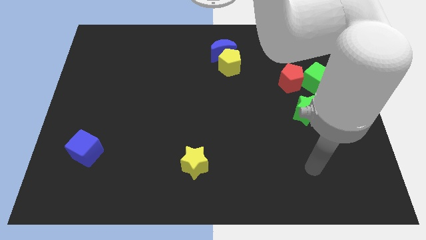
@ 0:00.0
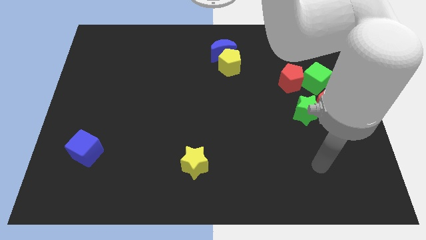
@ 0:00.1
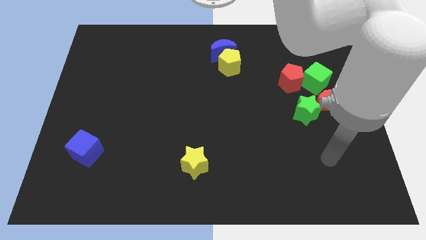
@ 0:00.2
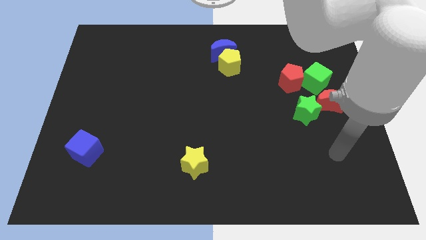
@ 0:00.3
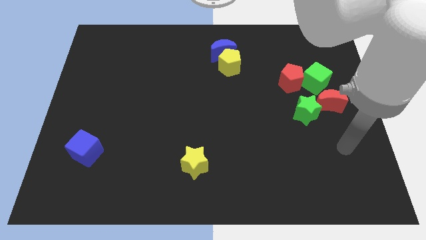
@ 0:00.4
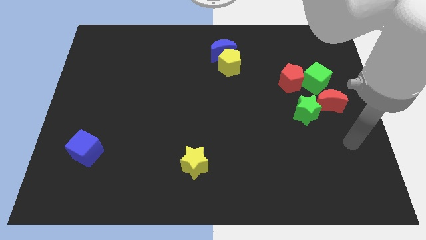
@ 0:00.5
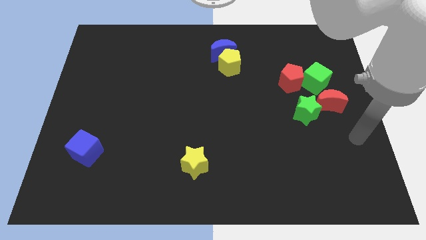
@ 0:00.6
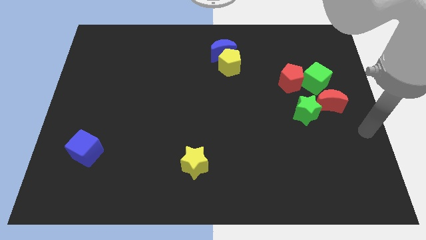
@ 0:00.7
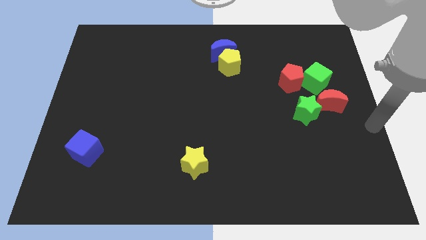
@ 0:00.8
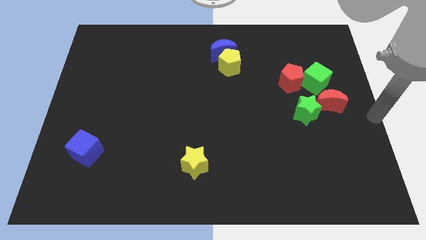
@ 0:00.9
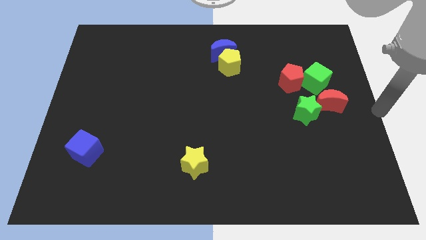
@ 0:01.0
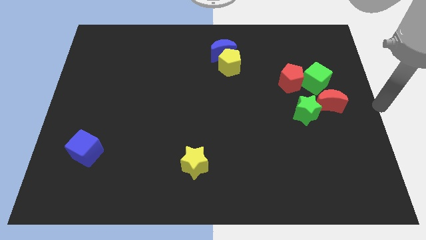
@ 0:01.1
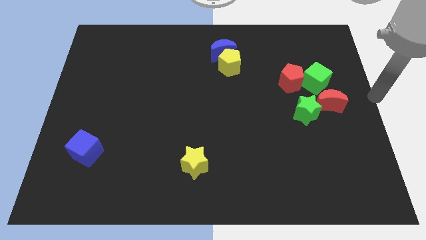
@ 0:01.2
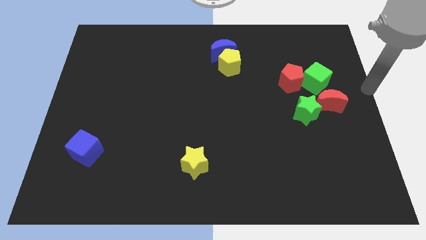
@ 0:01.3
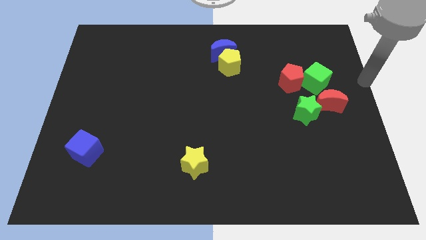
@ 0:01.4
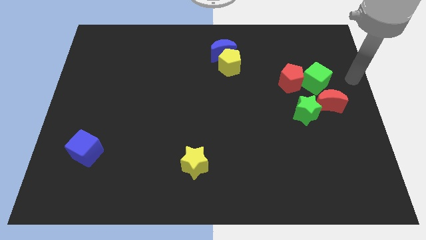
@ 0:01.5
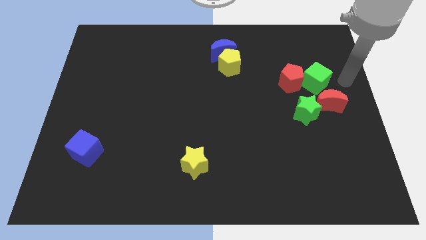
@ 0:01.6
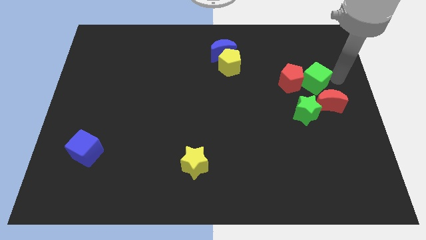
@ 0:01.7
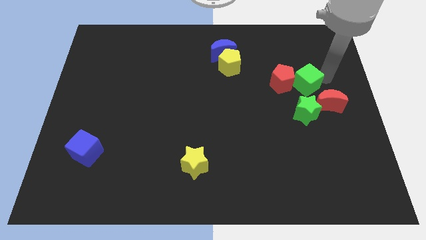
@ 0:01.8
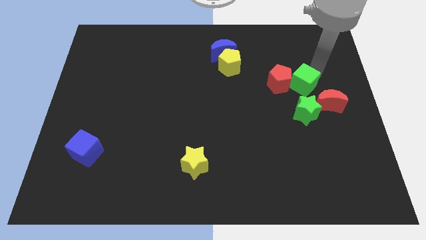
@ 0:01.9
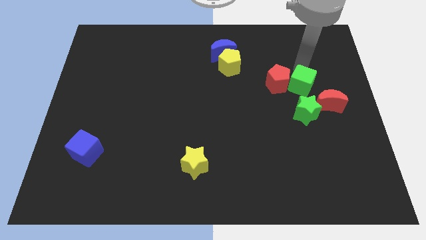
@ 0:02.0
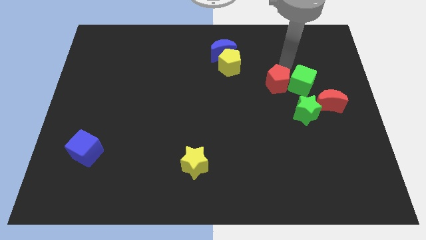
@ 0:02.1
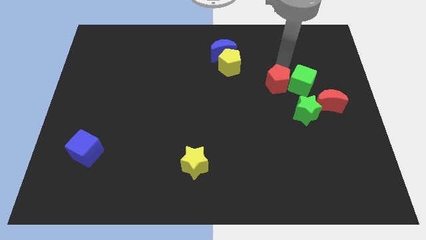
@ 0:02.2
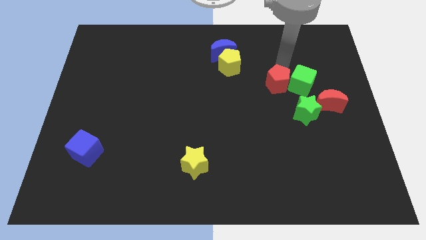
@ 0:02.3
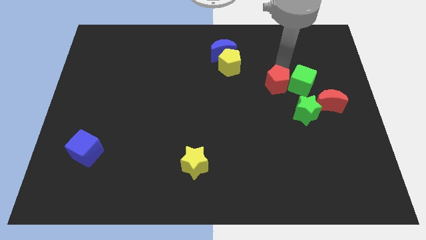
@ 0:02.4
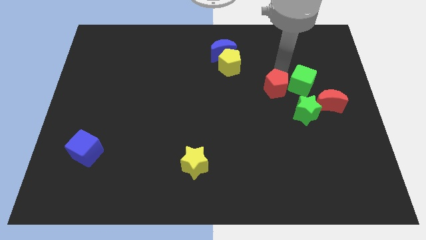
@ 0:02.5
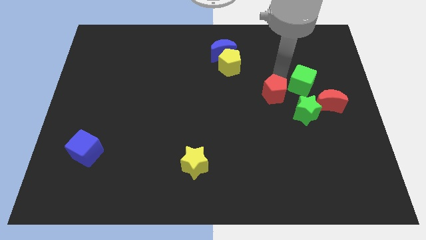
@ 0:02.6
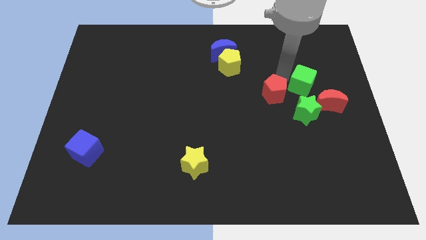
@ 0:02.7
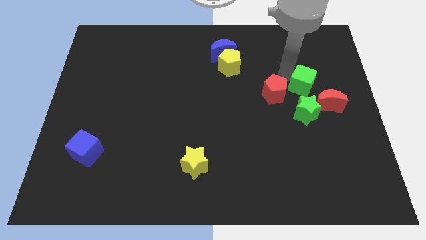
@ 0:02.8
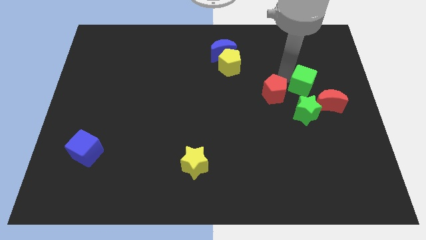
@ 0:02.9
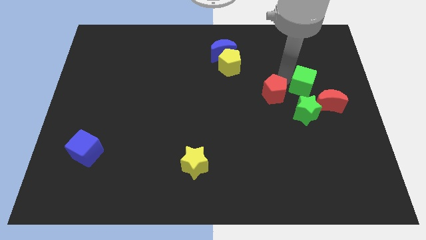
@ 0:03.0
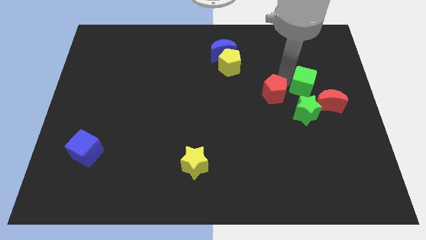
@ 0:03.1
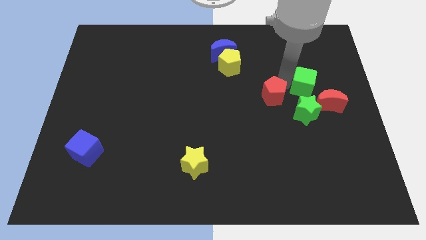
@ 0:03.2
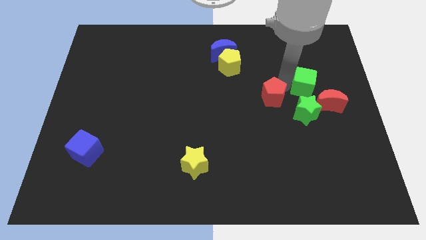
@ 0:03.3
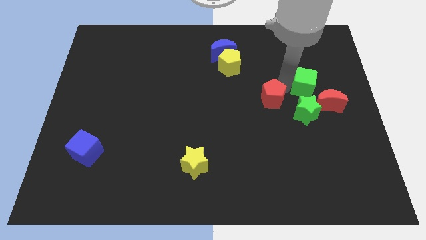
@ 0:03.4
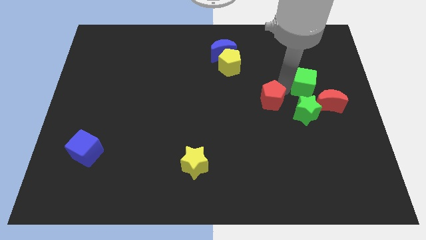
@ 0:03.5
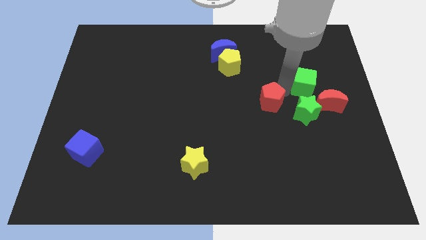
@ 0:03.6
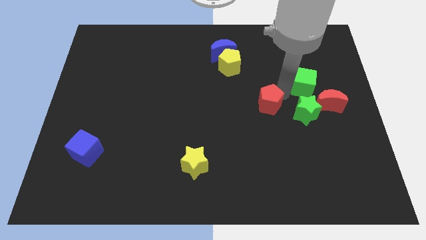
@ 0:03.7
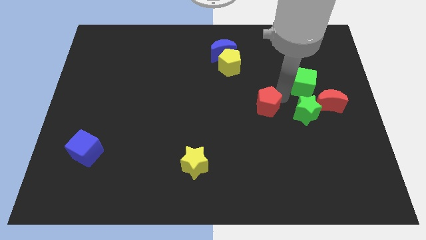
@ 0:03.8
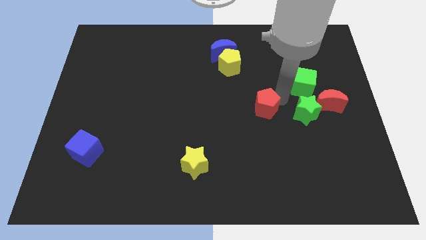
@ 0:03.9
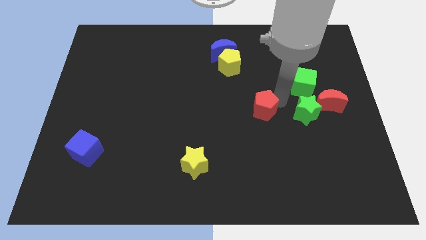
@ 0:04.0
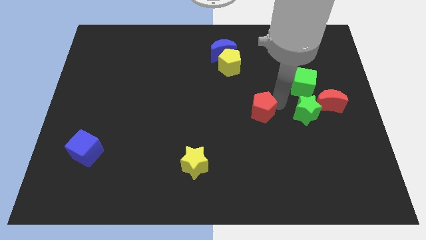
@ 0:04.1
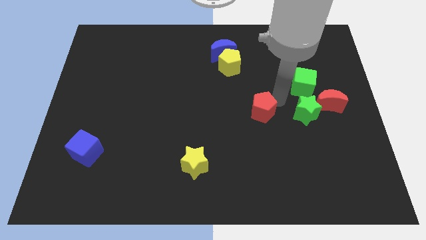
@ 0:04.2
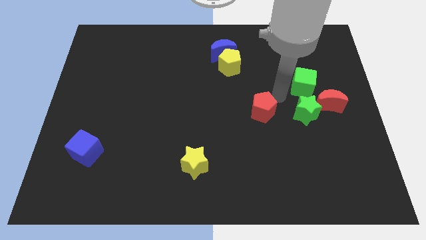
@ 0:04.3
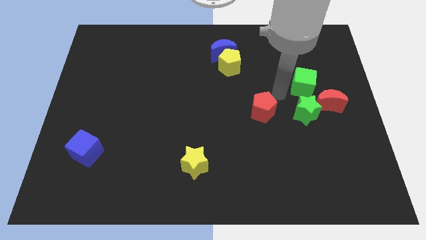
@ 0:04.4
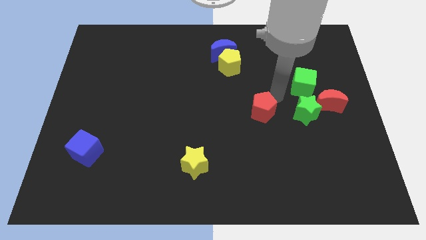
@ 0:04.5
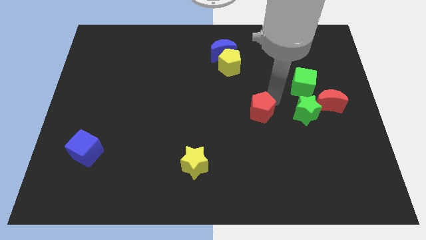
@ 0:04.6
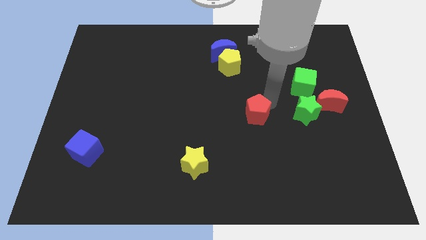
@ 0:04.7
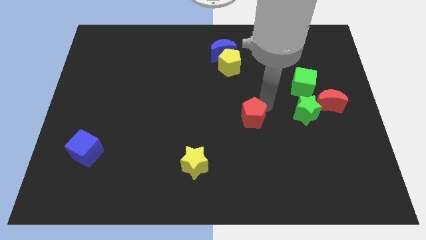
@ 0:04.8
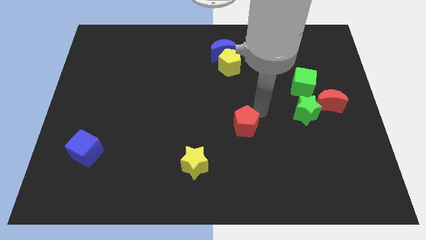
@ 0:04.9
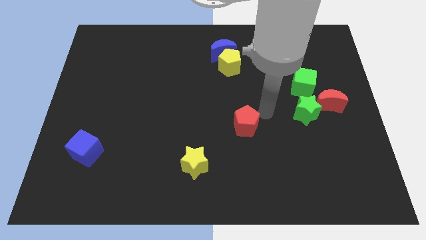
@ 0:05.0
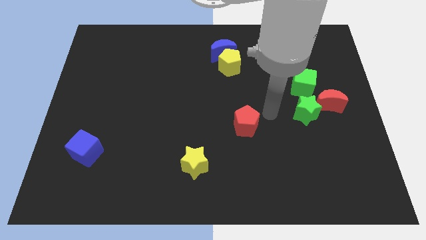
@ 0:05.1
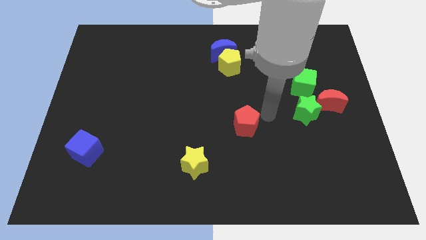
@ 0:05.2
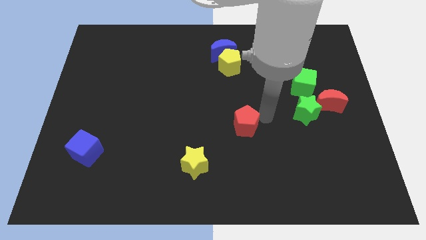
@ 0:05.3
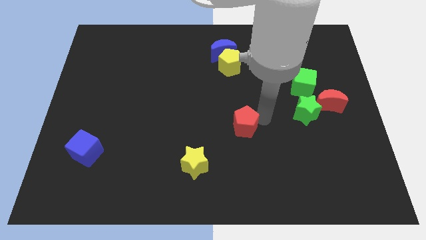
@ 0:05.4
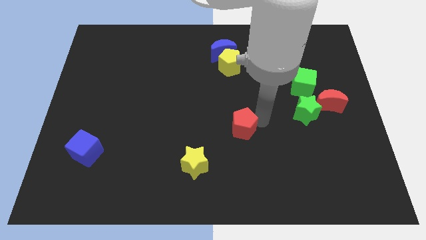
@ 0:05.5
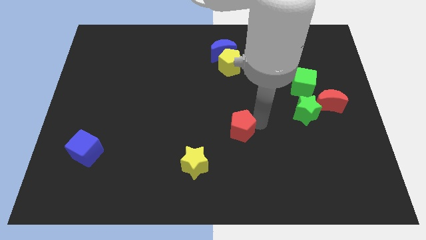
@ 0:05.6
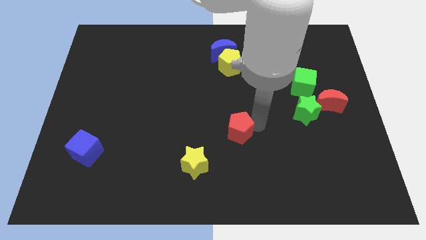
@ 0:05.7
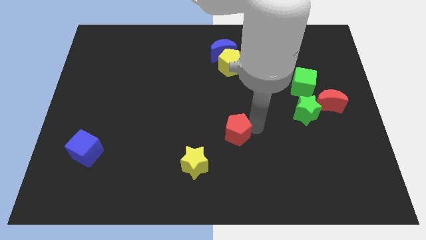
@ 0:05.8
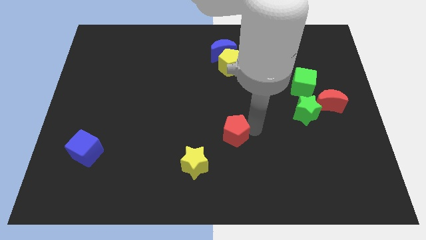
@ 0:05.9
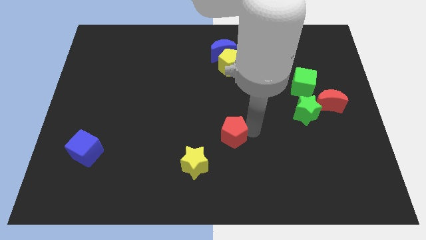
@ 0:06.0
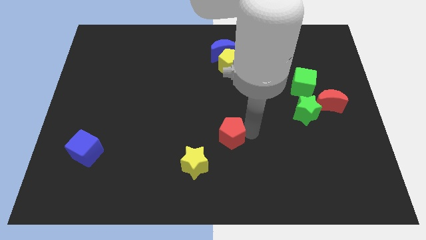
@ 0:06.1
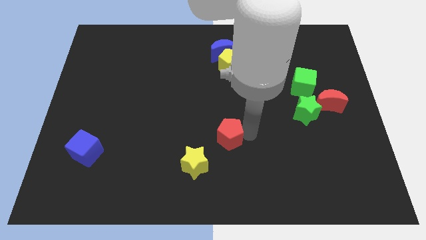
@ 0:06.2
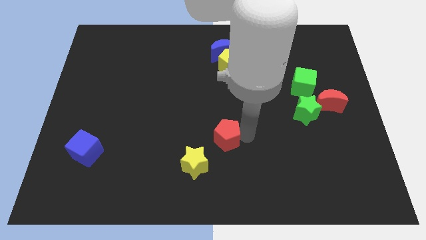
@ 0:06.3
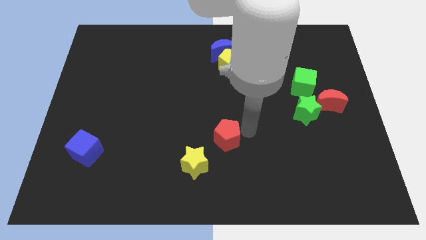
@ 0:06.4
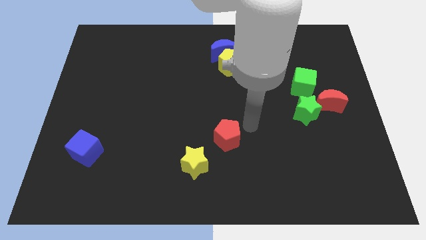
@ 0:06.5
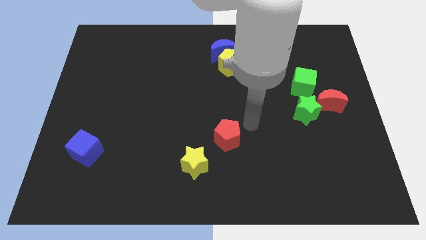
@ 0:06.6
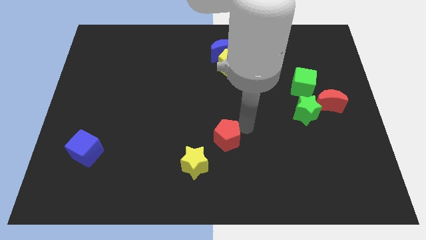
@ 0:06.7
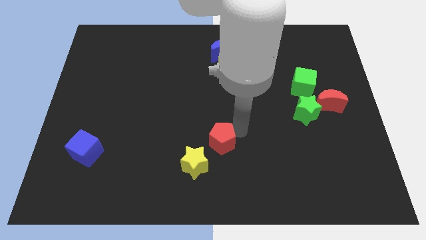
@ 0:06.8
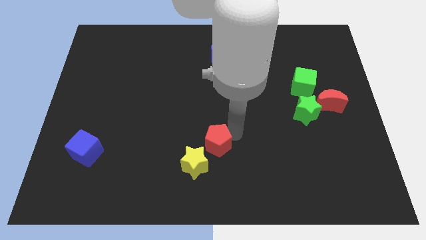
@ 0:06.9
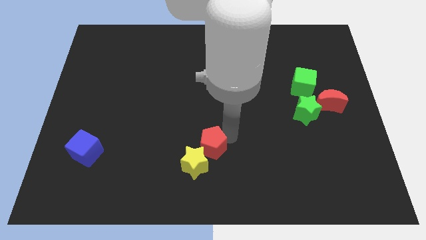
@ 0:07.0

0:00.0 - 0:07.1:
push the red pentagon close to the yellow star
